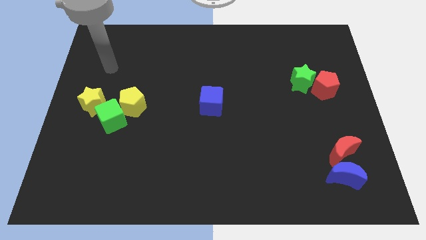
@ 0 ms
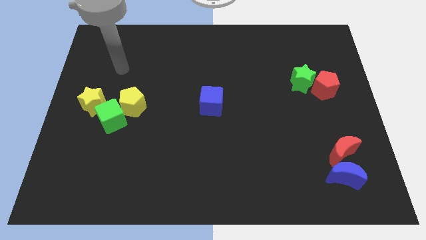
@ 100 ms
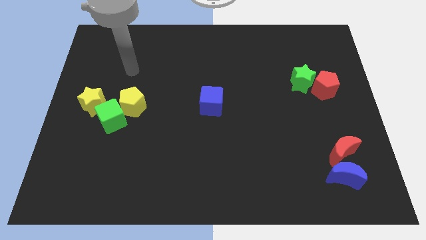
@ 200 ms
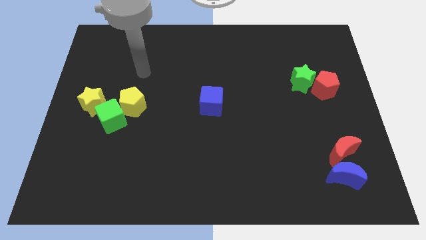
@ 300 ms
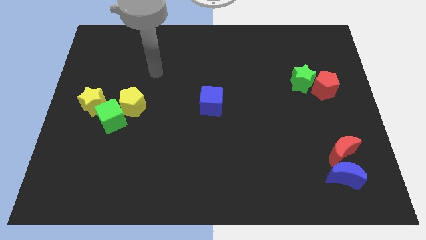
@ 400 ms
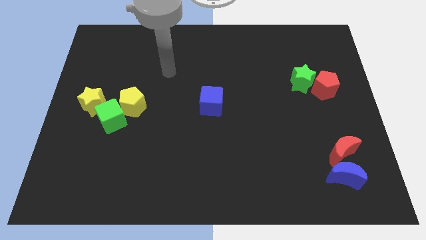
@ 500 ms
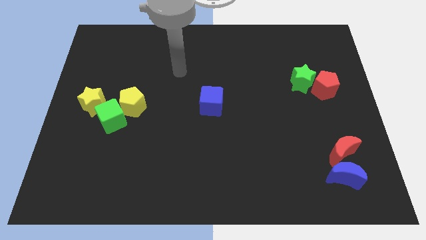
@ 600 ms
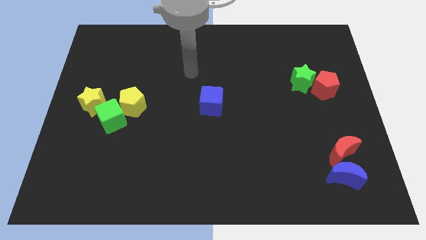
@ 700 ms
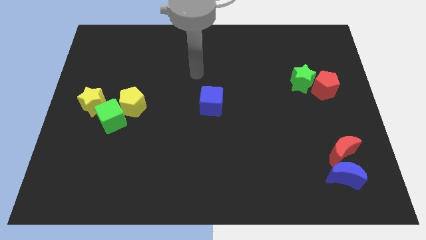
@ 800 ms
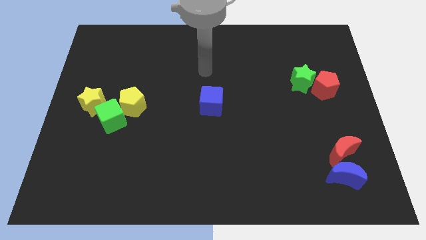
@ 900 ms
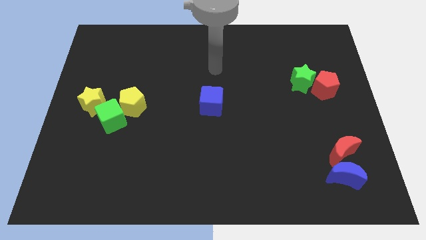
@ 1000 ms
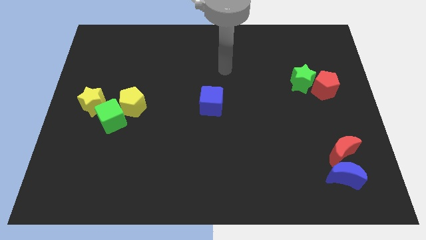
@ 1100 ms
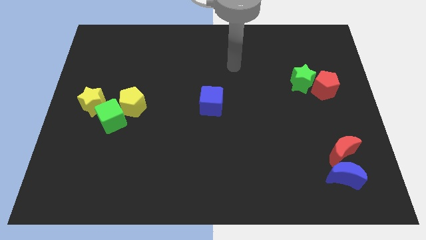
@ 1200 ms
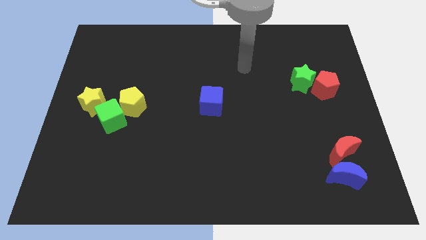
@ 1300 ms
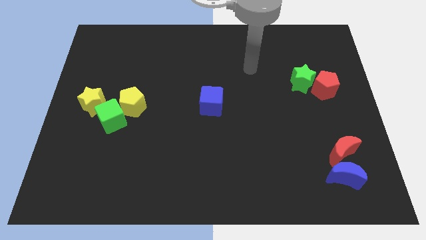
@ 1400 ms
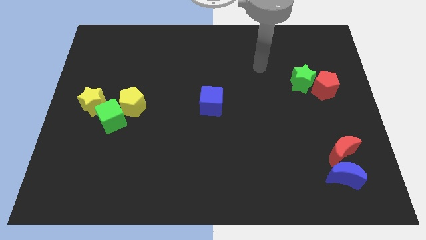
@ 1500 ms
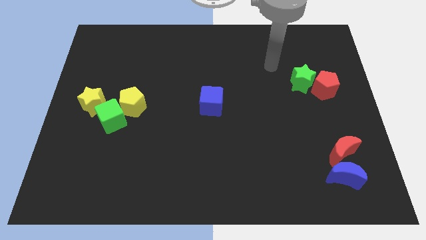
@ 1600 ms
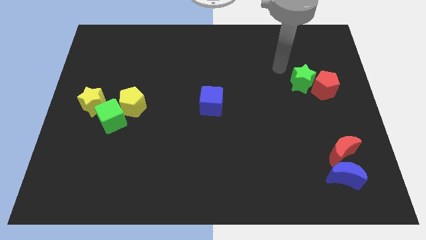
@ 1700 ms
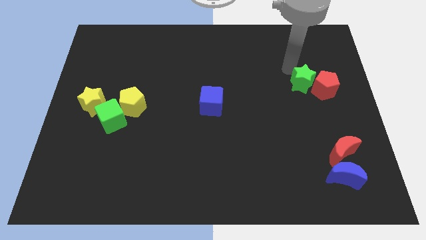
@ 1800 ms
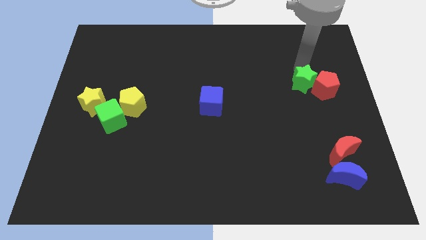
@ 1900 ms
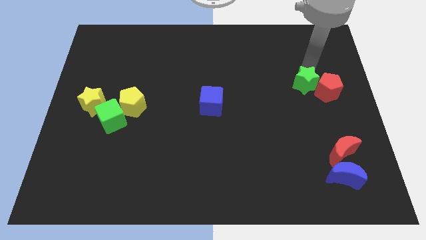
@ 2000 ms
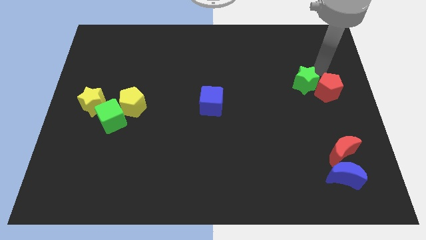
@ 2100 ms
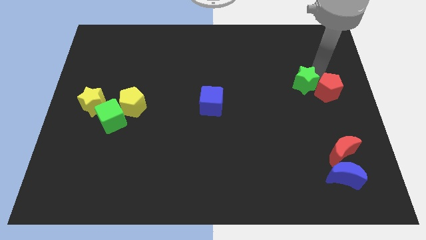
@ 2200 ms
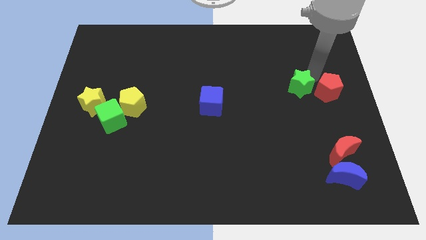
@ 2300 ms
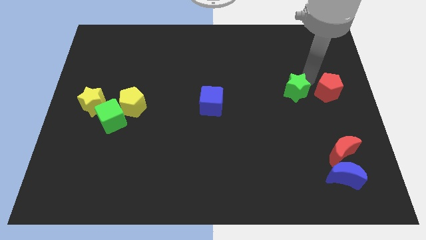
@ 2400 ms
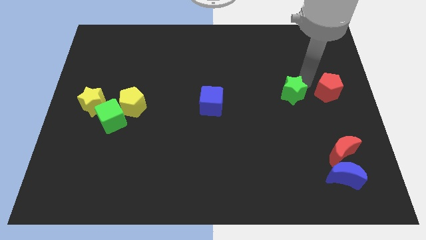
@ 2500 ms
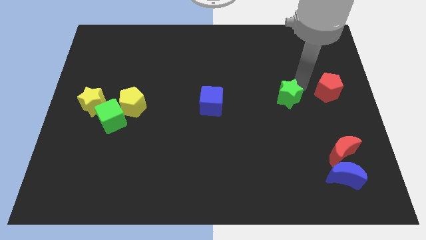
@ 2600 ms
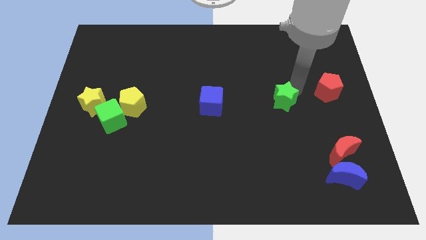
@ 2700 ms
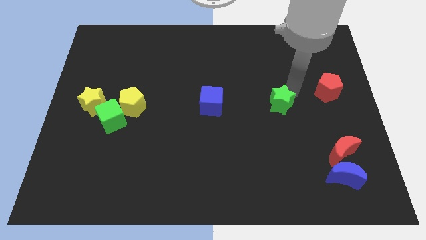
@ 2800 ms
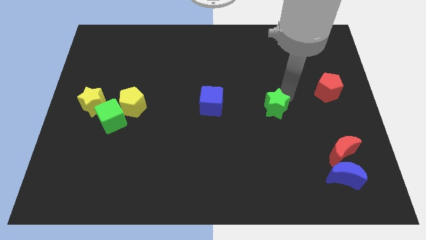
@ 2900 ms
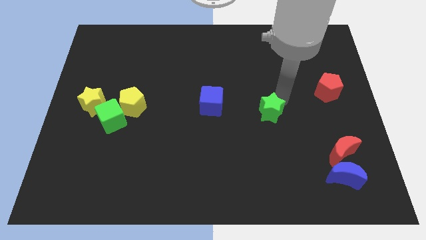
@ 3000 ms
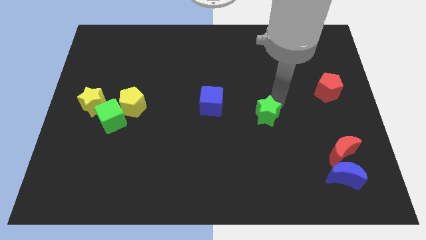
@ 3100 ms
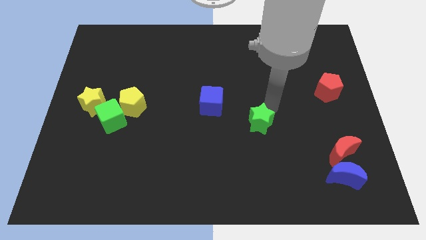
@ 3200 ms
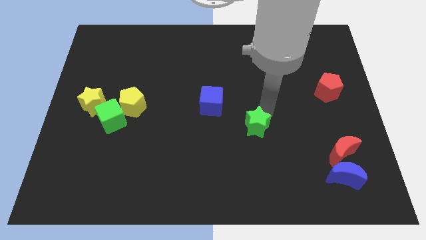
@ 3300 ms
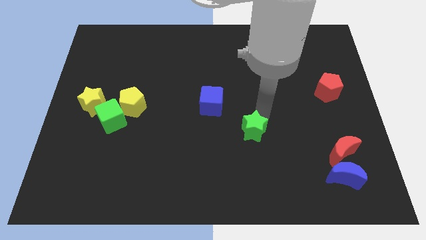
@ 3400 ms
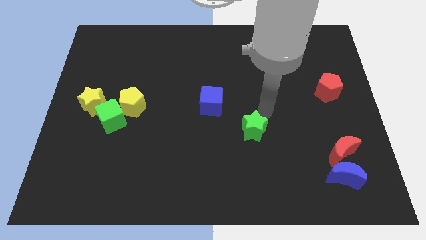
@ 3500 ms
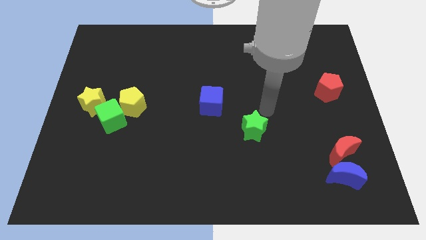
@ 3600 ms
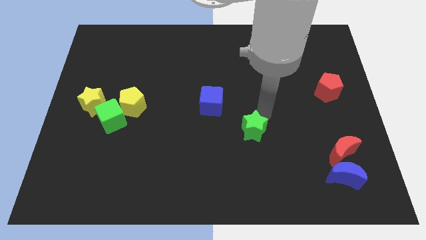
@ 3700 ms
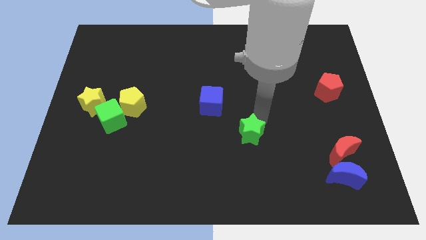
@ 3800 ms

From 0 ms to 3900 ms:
push the green star downwards and then to the left

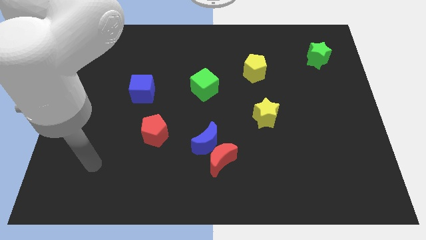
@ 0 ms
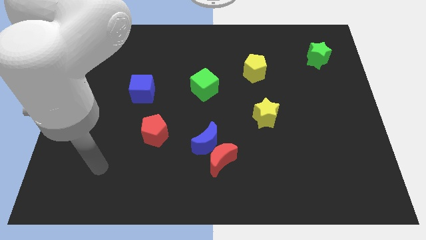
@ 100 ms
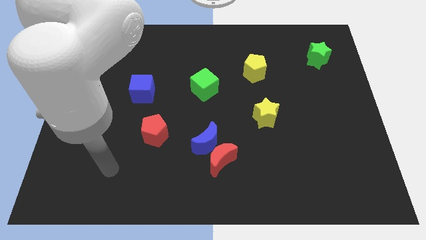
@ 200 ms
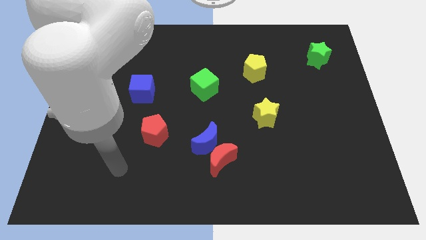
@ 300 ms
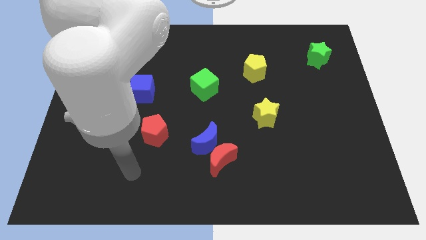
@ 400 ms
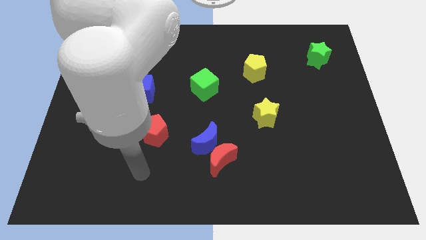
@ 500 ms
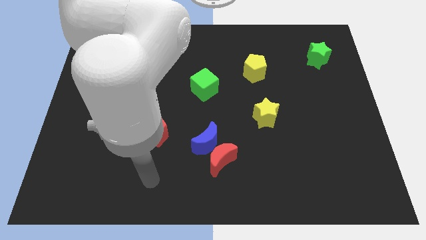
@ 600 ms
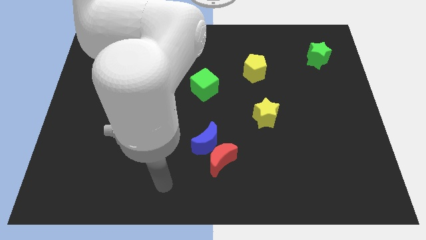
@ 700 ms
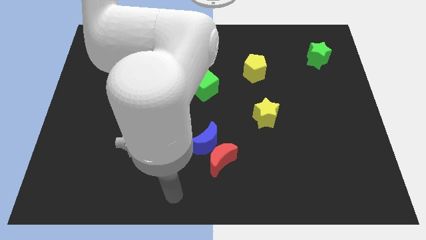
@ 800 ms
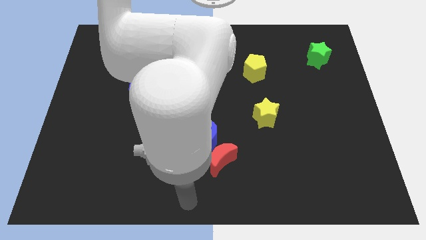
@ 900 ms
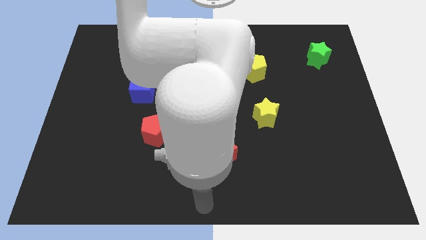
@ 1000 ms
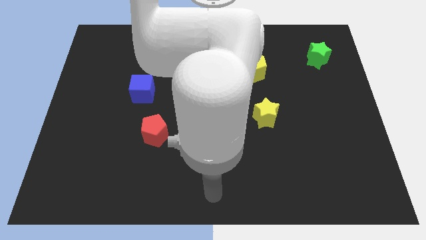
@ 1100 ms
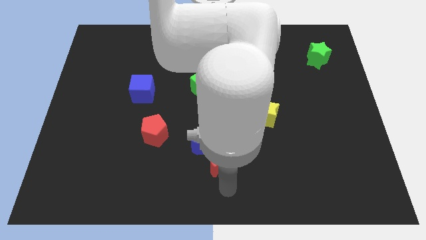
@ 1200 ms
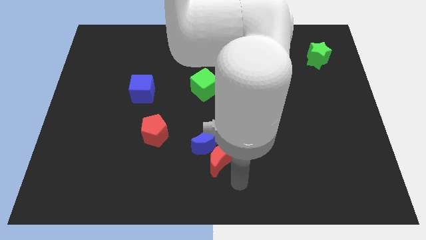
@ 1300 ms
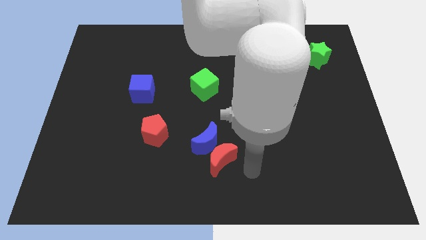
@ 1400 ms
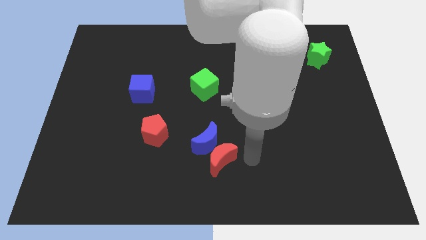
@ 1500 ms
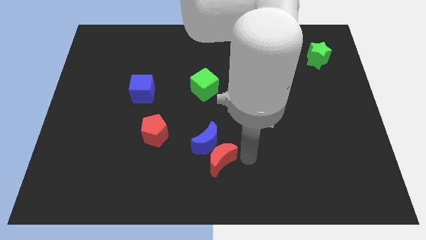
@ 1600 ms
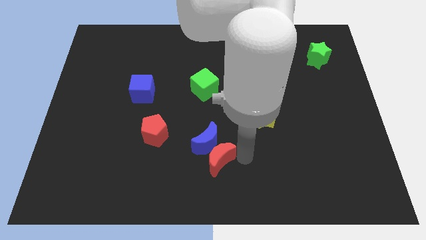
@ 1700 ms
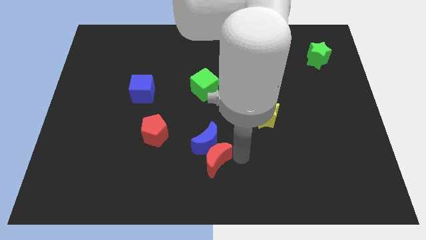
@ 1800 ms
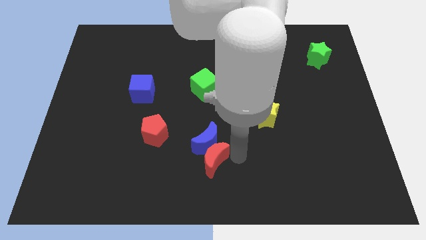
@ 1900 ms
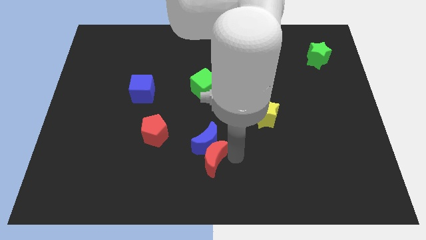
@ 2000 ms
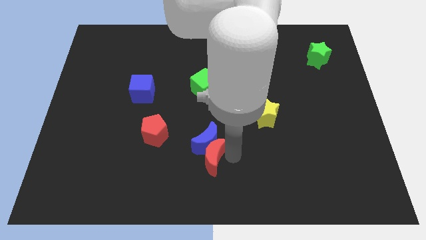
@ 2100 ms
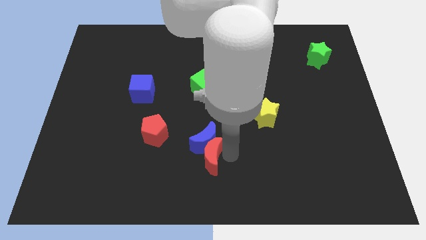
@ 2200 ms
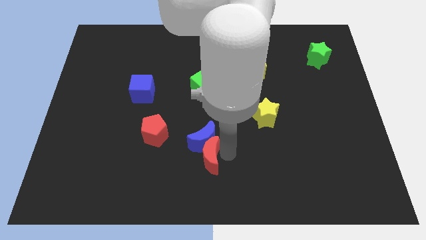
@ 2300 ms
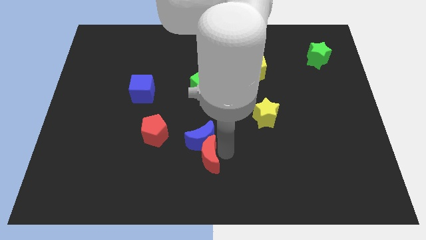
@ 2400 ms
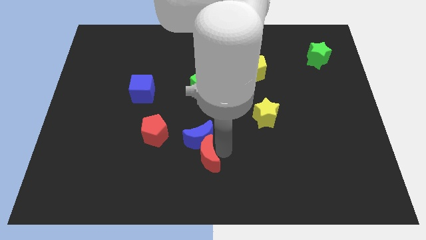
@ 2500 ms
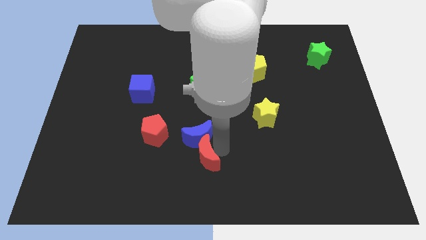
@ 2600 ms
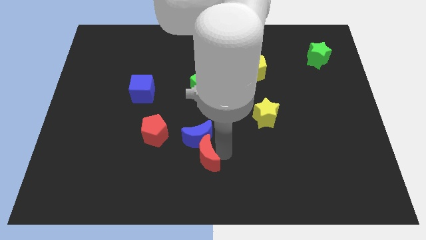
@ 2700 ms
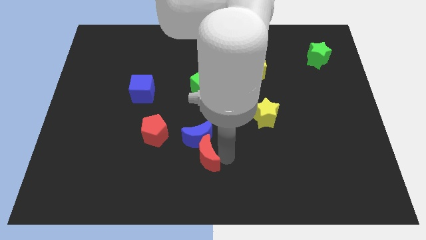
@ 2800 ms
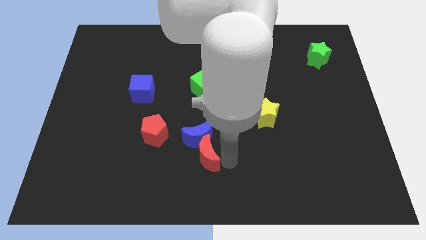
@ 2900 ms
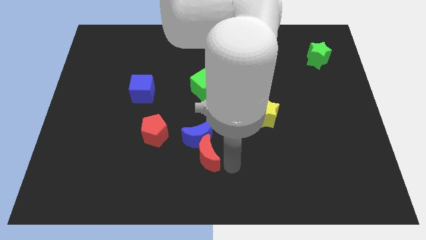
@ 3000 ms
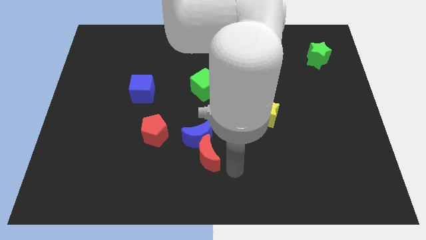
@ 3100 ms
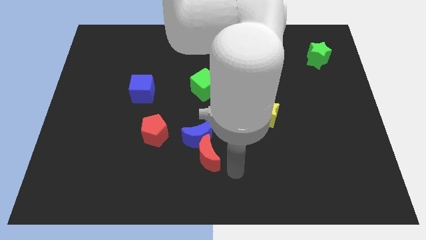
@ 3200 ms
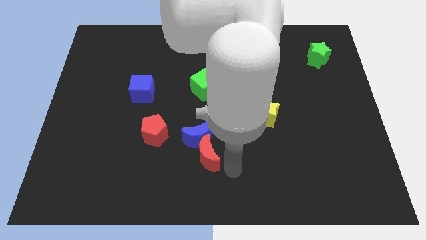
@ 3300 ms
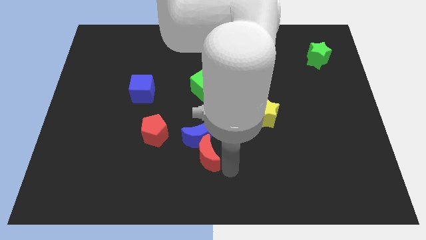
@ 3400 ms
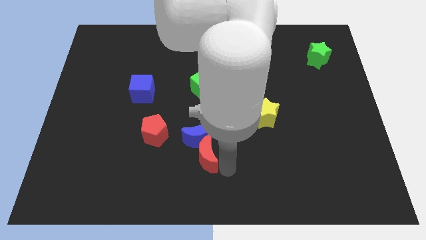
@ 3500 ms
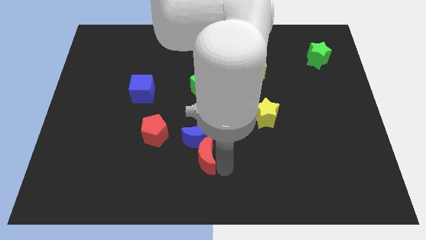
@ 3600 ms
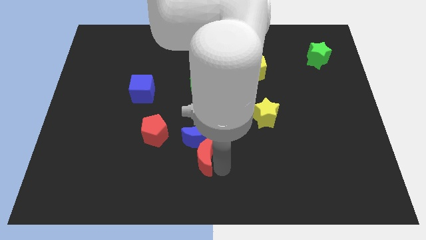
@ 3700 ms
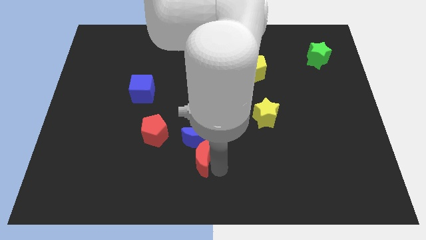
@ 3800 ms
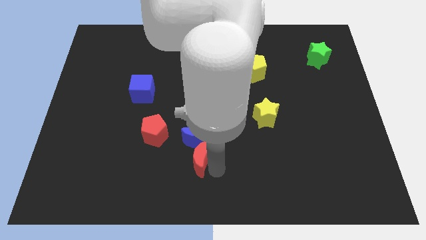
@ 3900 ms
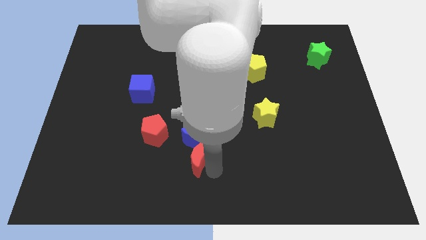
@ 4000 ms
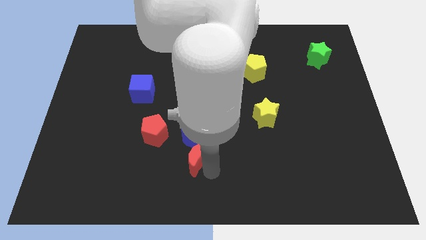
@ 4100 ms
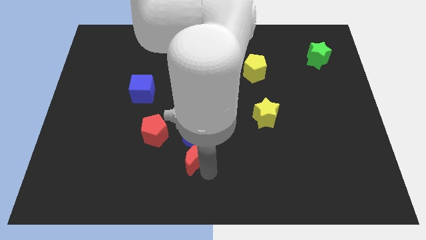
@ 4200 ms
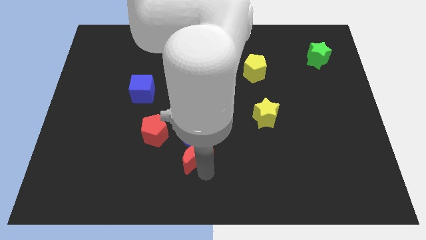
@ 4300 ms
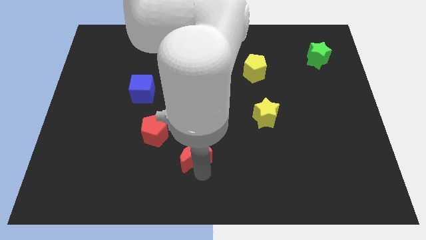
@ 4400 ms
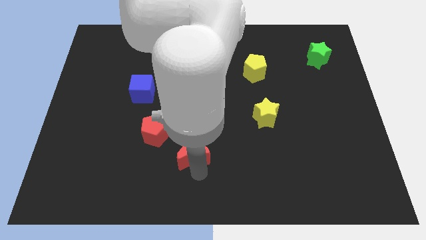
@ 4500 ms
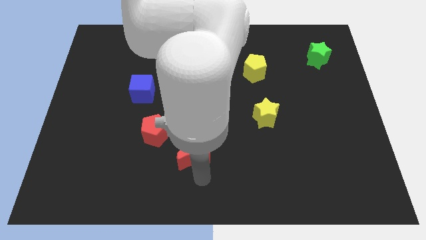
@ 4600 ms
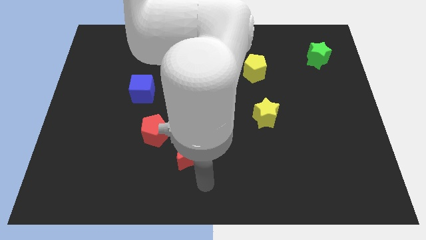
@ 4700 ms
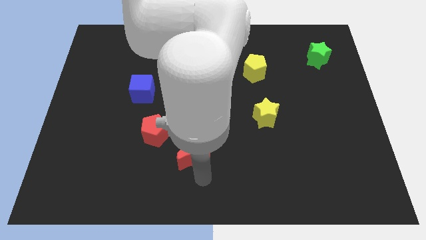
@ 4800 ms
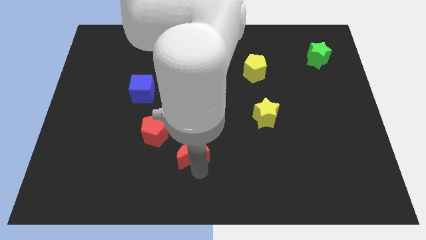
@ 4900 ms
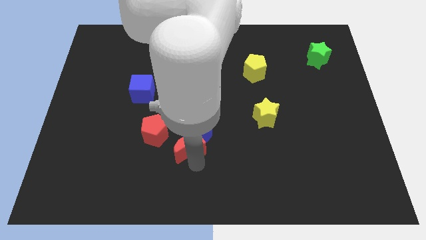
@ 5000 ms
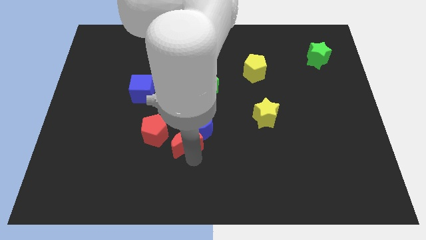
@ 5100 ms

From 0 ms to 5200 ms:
slightly push the red moon up and then left
